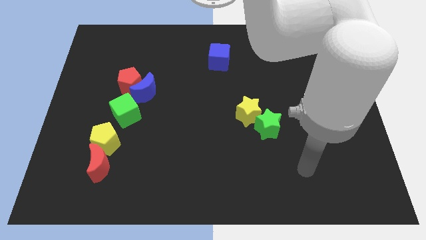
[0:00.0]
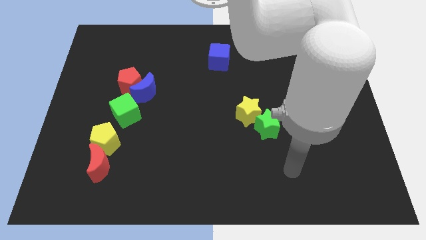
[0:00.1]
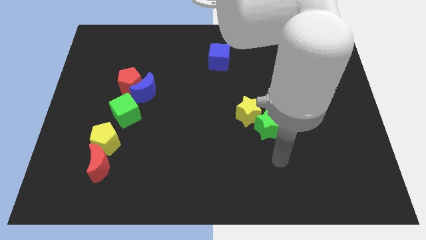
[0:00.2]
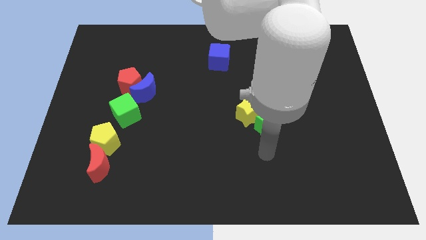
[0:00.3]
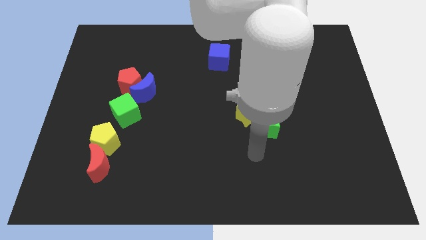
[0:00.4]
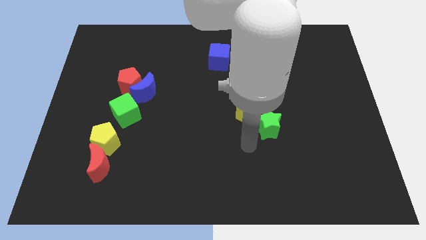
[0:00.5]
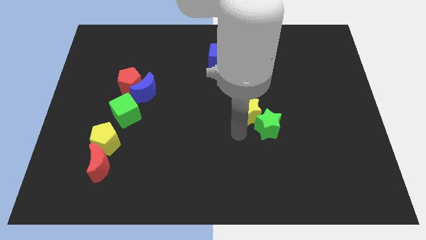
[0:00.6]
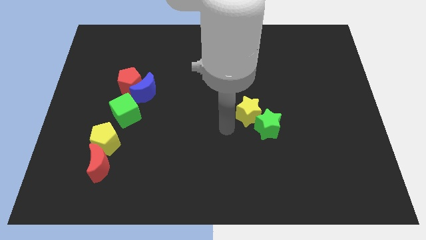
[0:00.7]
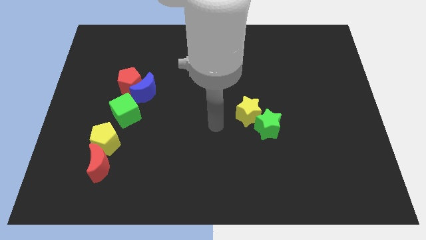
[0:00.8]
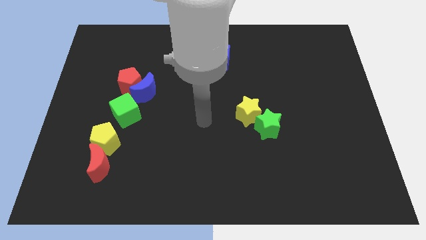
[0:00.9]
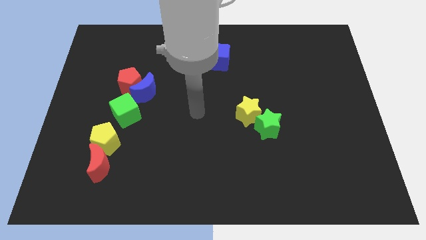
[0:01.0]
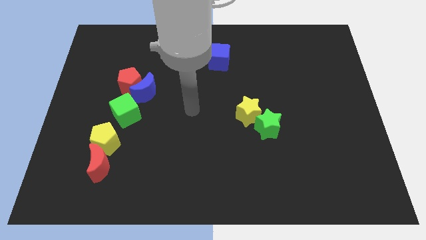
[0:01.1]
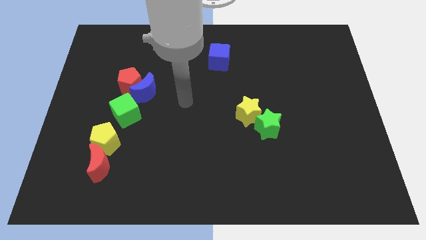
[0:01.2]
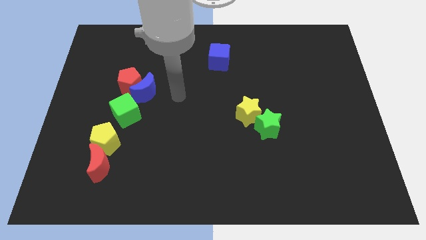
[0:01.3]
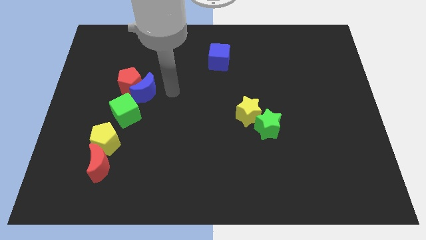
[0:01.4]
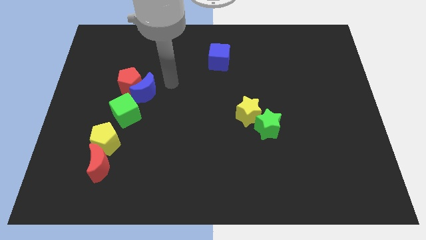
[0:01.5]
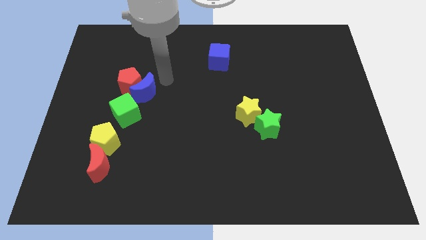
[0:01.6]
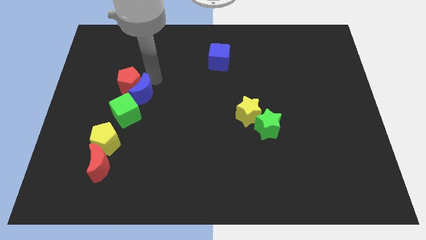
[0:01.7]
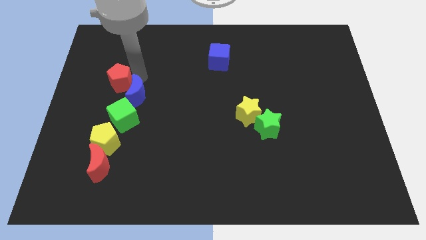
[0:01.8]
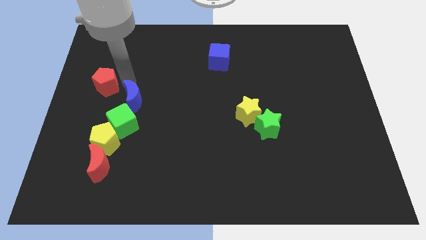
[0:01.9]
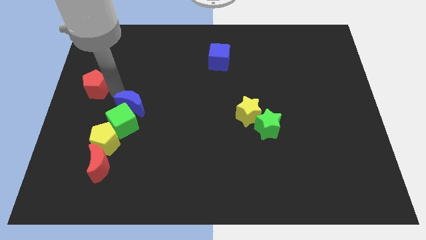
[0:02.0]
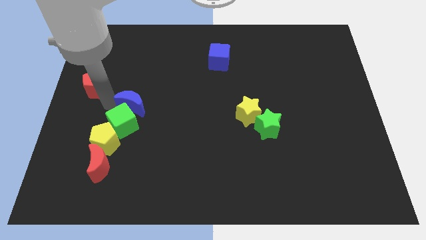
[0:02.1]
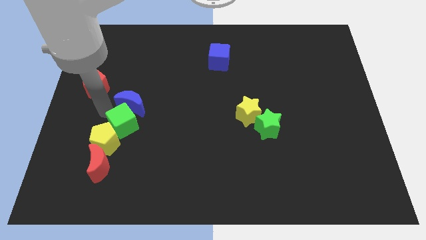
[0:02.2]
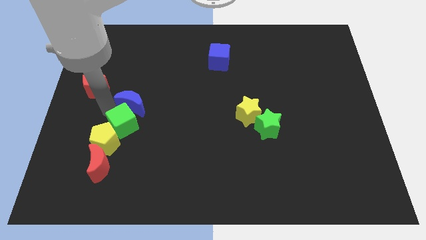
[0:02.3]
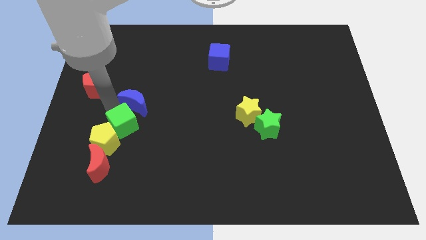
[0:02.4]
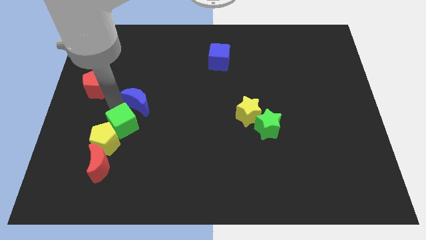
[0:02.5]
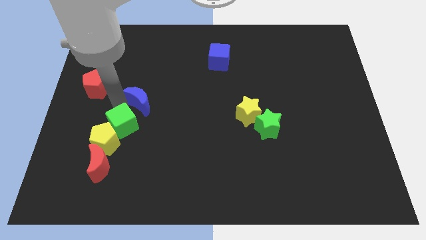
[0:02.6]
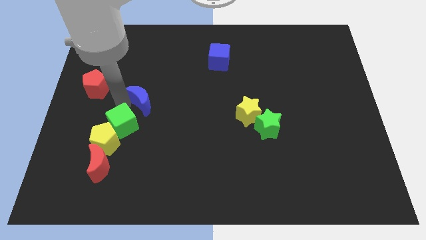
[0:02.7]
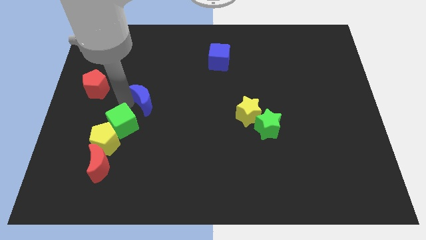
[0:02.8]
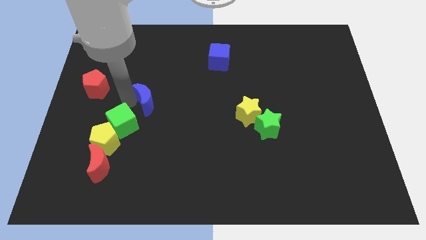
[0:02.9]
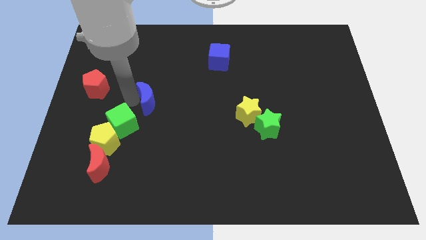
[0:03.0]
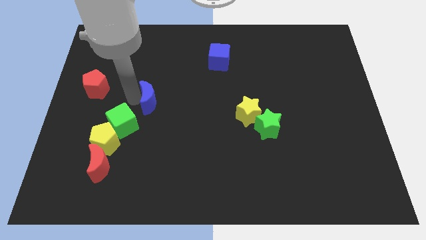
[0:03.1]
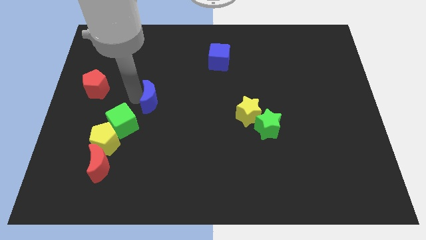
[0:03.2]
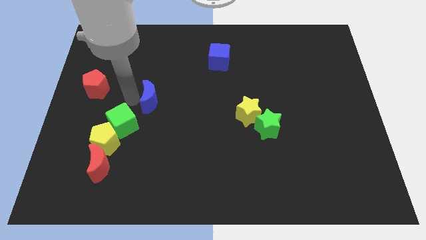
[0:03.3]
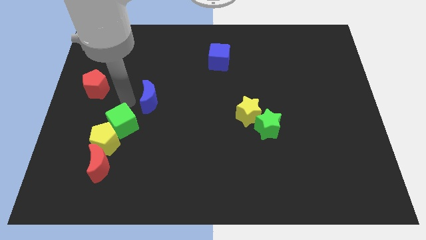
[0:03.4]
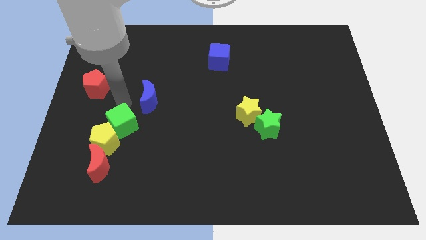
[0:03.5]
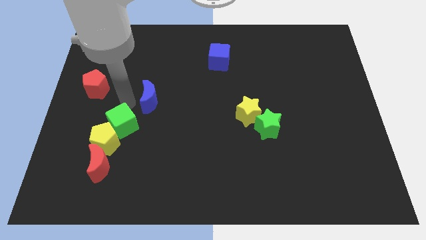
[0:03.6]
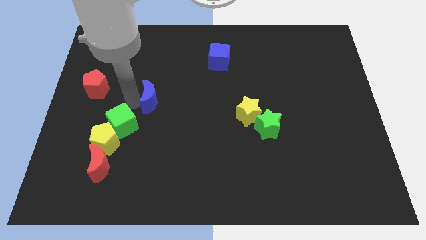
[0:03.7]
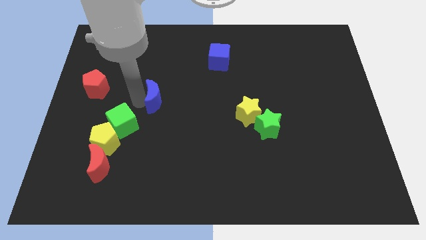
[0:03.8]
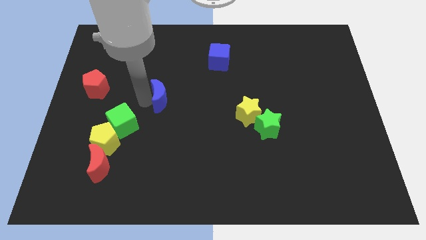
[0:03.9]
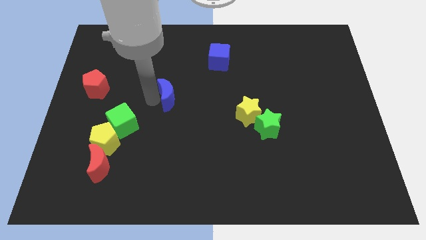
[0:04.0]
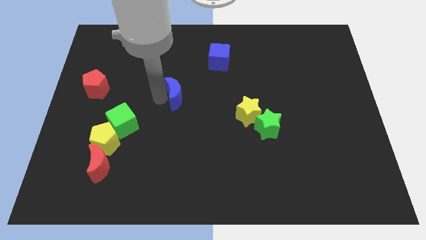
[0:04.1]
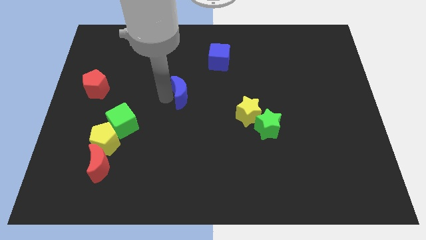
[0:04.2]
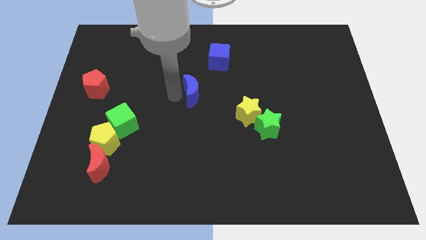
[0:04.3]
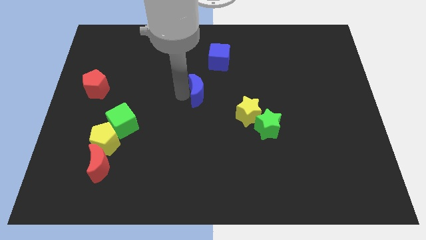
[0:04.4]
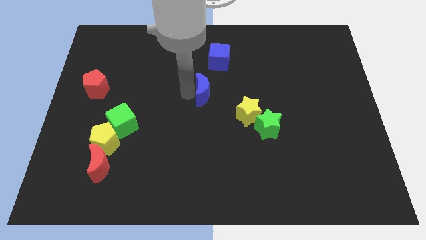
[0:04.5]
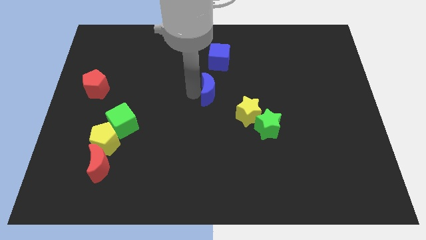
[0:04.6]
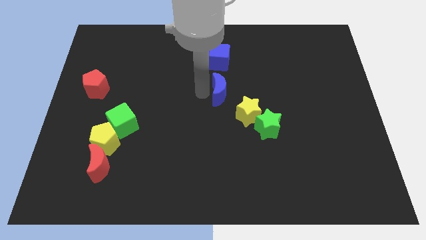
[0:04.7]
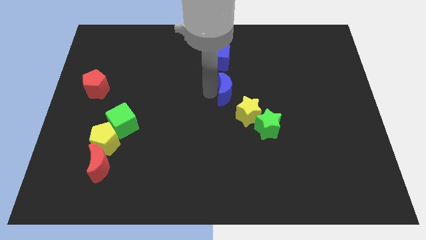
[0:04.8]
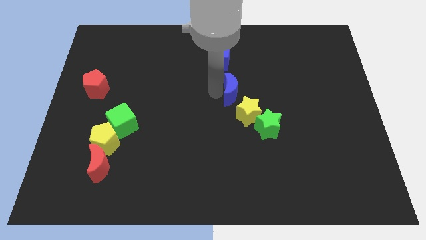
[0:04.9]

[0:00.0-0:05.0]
move the blue moon to the right

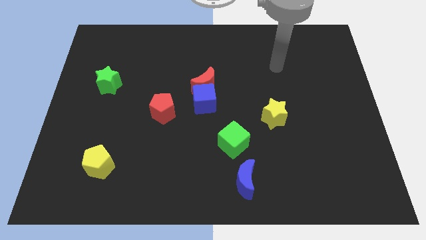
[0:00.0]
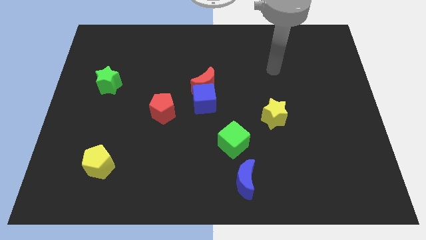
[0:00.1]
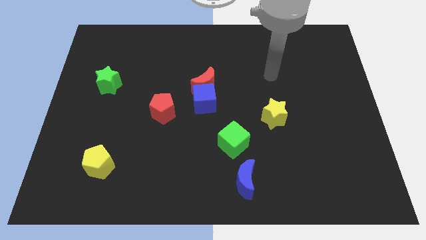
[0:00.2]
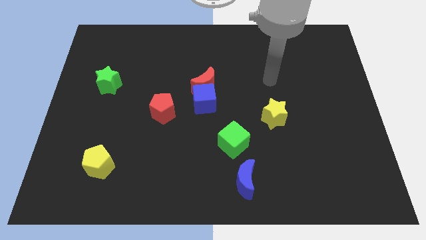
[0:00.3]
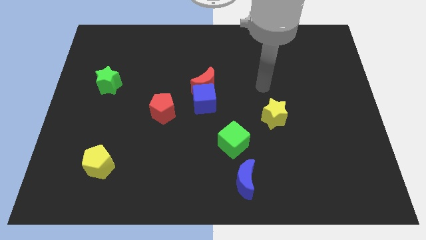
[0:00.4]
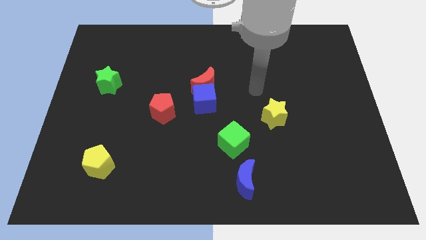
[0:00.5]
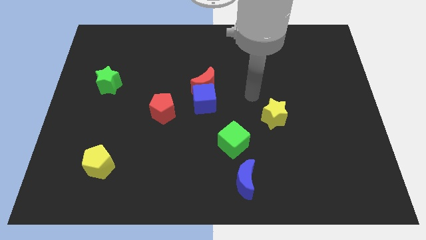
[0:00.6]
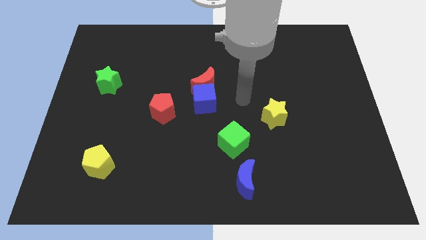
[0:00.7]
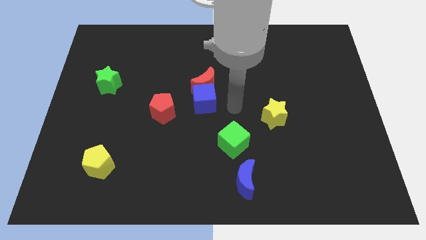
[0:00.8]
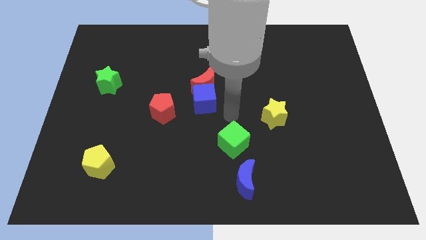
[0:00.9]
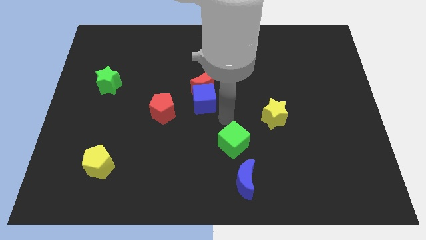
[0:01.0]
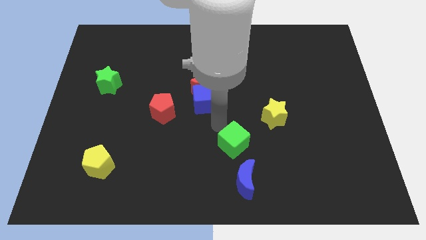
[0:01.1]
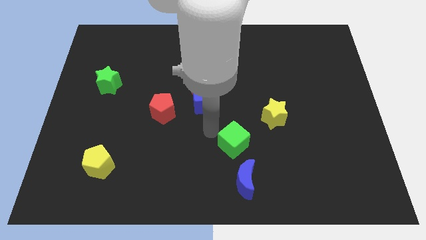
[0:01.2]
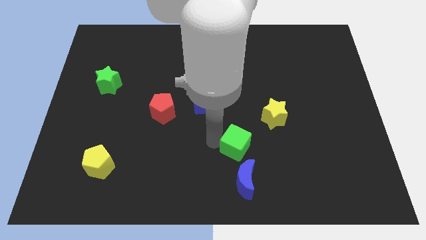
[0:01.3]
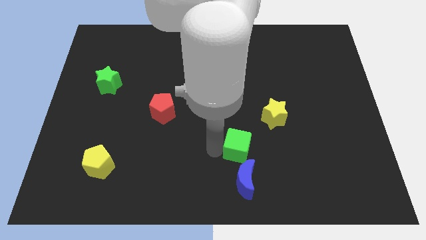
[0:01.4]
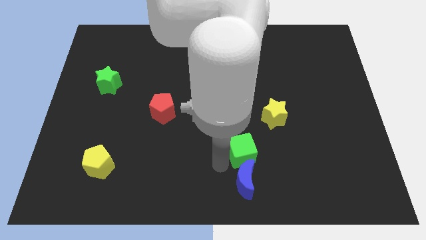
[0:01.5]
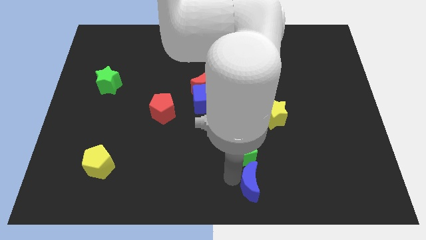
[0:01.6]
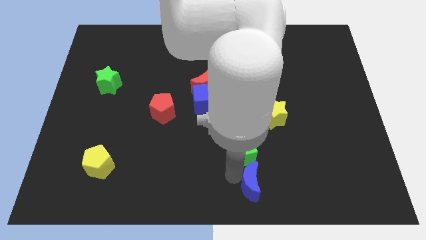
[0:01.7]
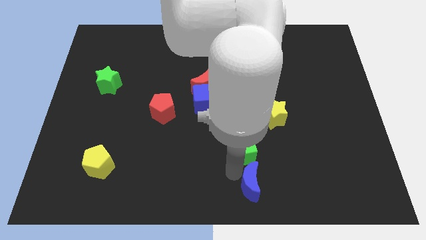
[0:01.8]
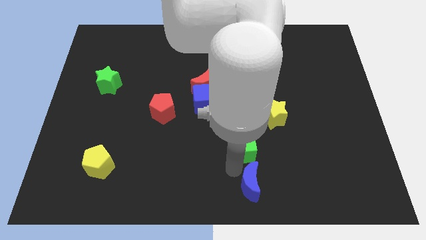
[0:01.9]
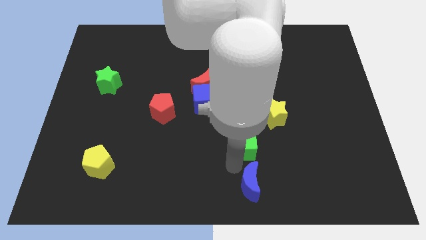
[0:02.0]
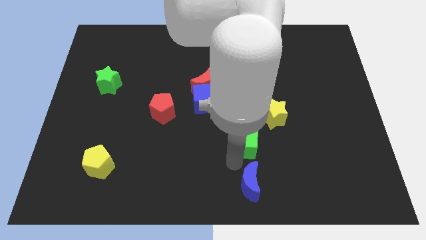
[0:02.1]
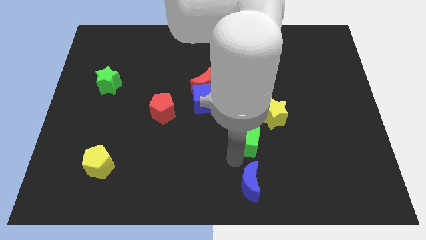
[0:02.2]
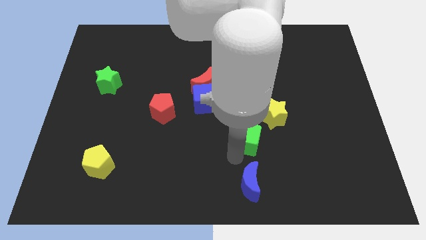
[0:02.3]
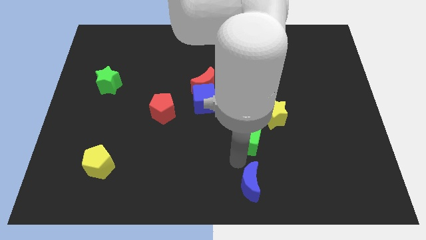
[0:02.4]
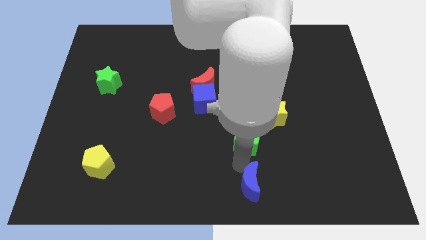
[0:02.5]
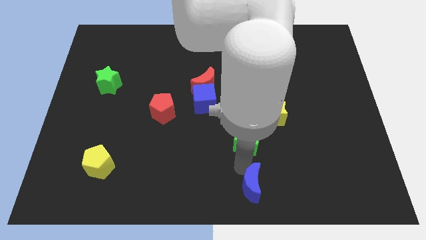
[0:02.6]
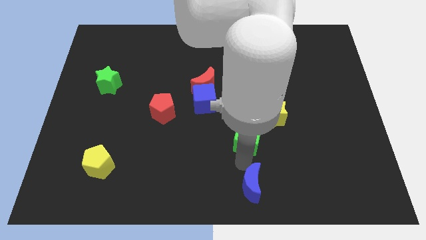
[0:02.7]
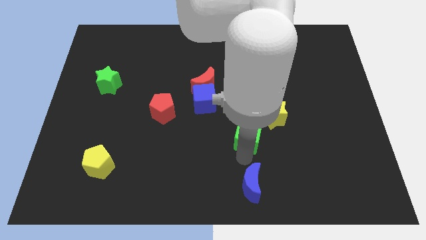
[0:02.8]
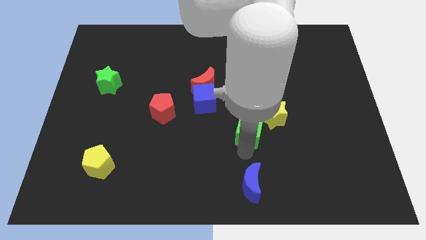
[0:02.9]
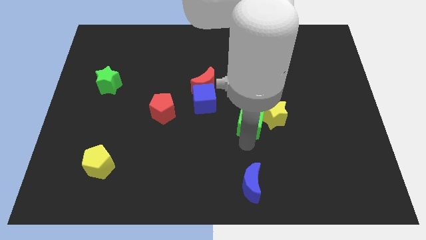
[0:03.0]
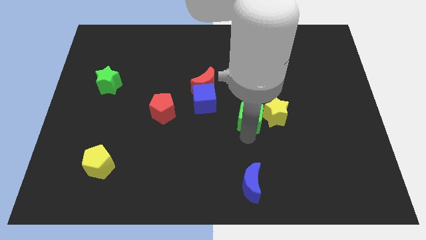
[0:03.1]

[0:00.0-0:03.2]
slightly slide the green cube upwards and right diagonally
